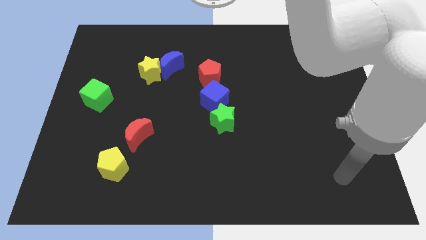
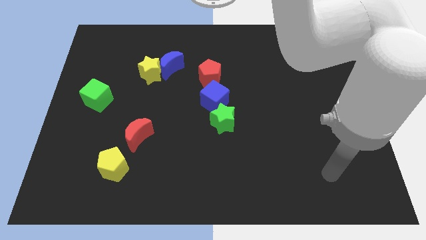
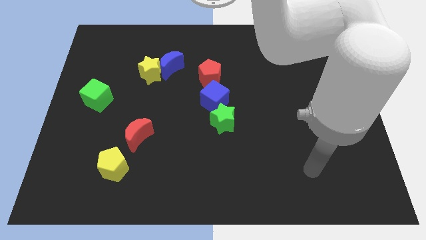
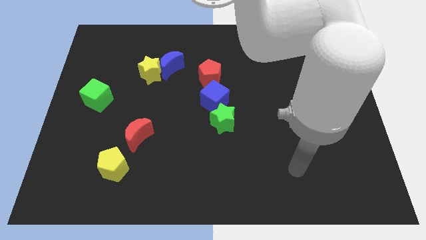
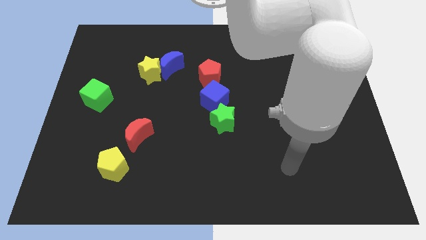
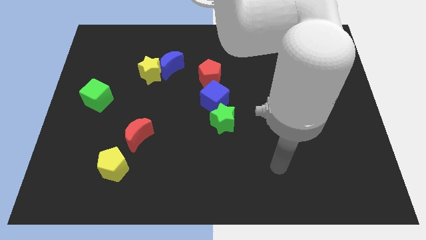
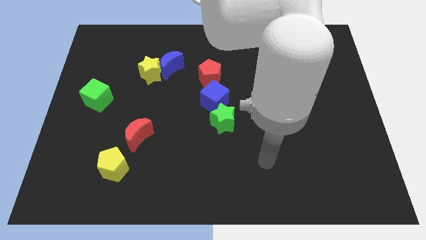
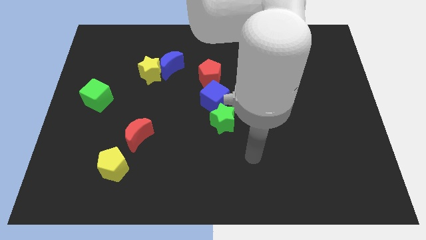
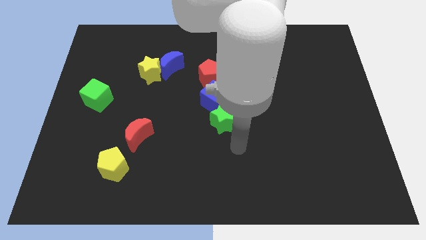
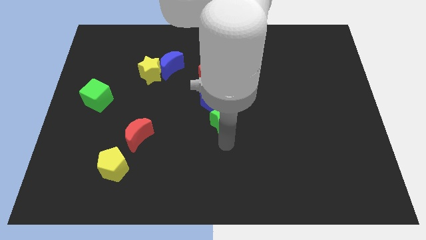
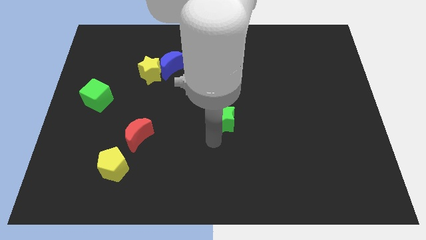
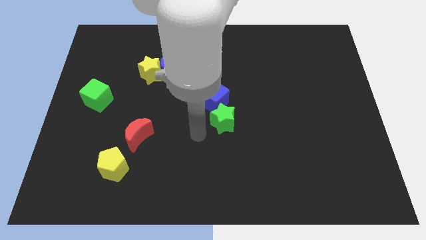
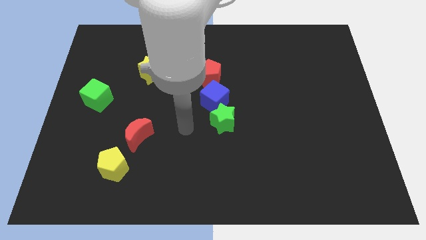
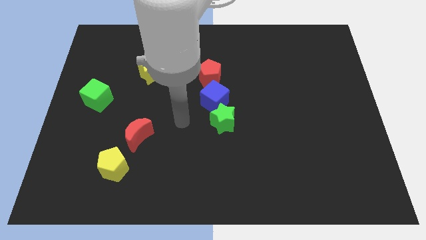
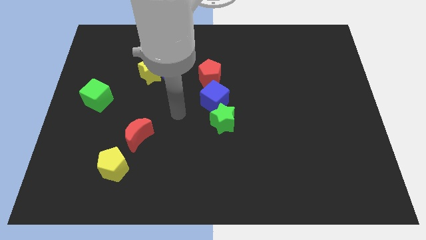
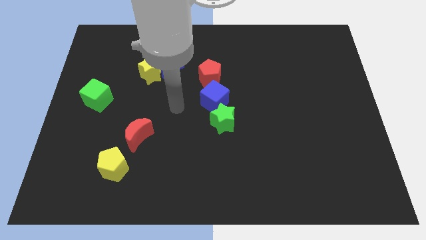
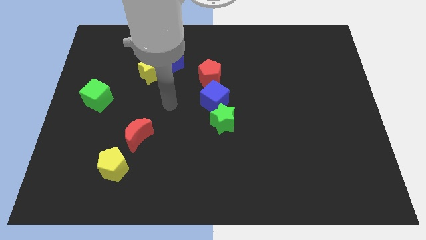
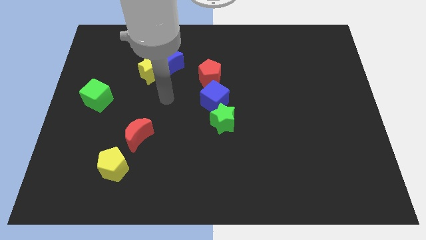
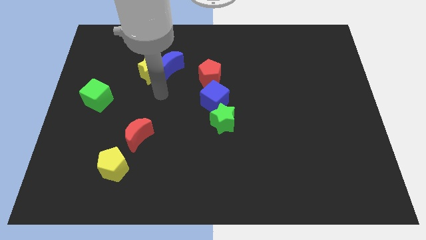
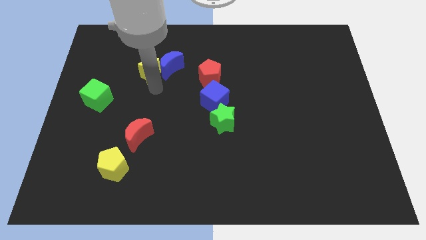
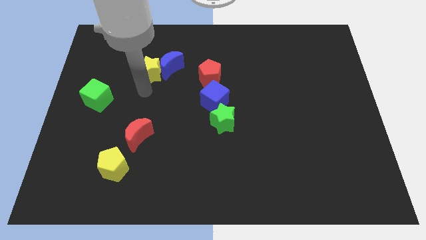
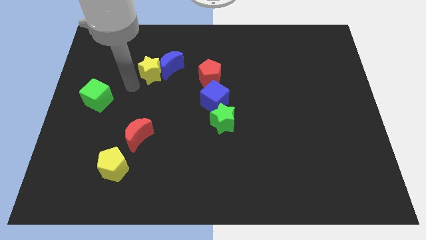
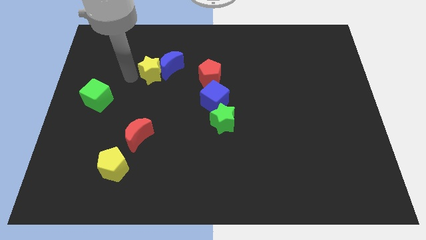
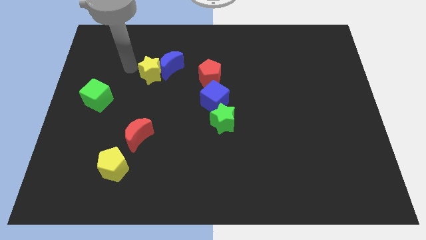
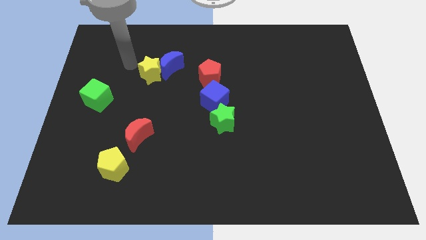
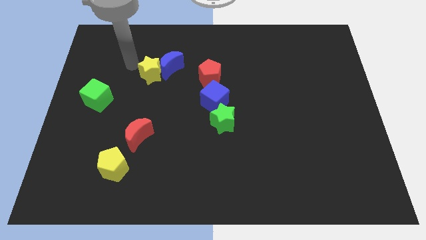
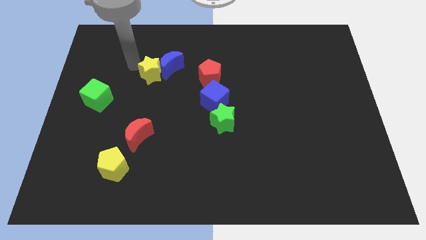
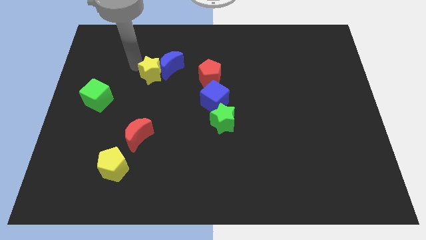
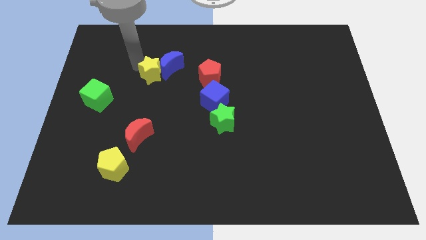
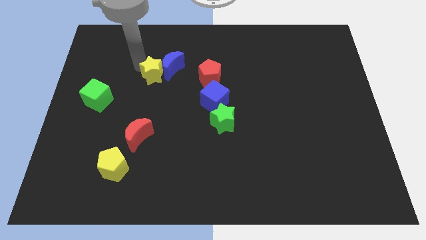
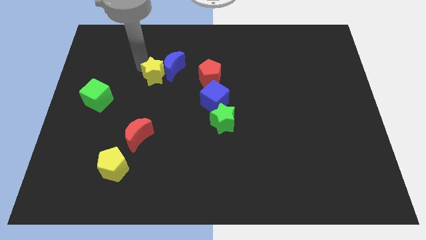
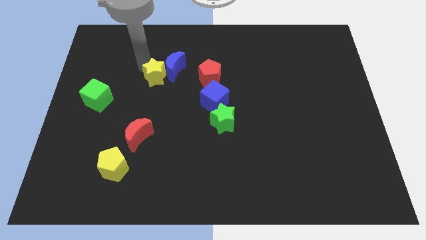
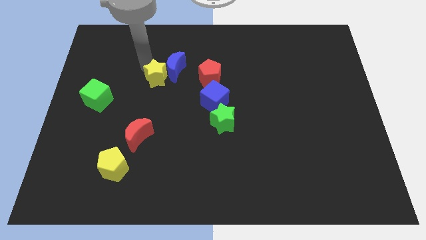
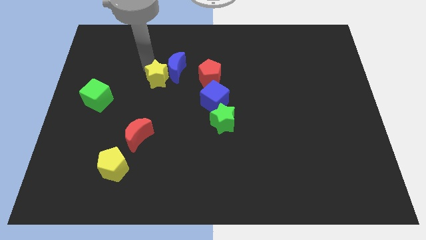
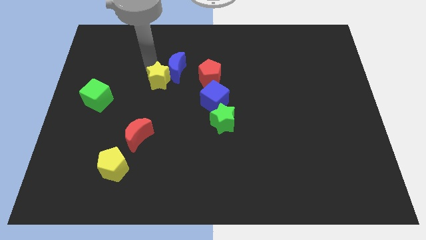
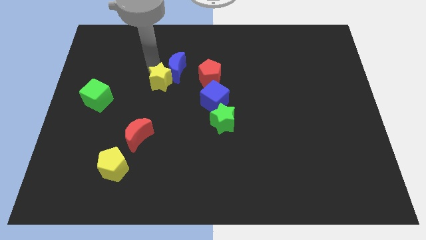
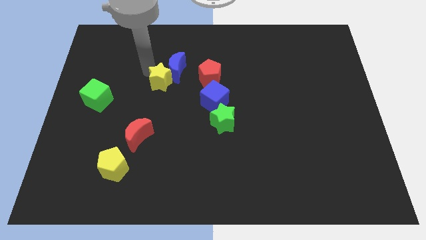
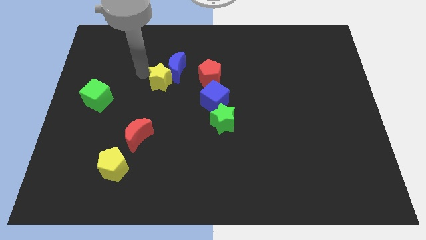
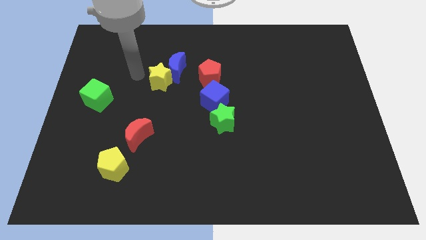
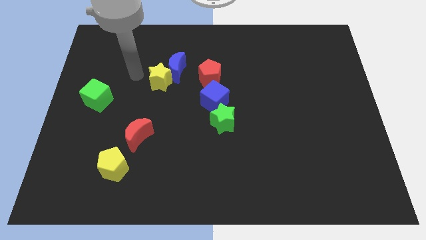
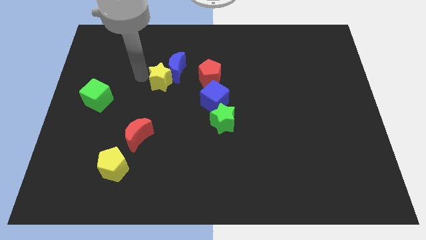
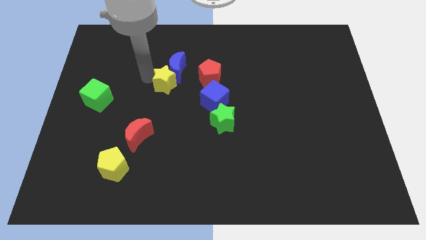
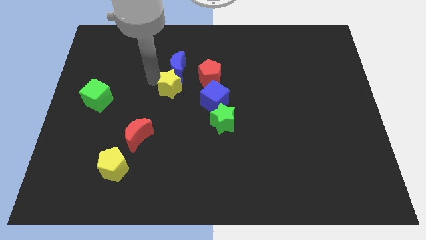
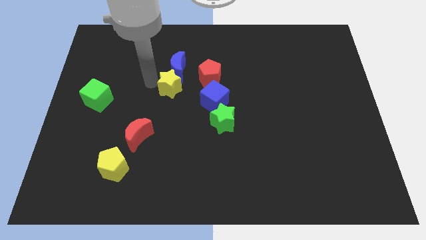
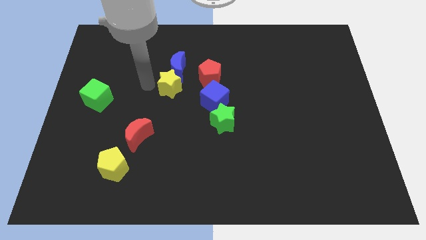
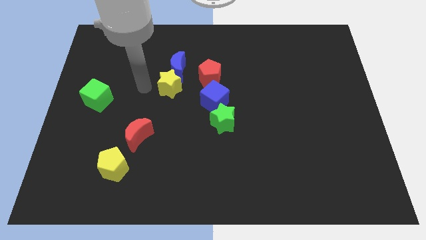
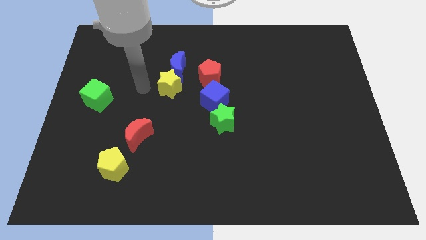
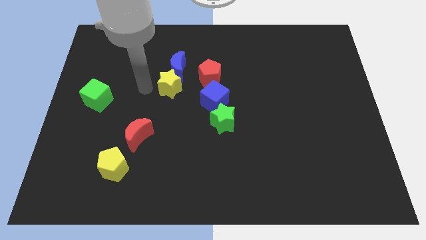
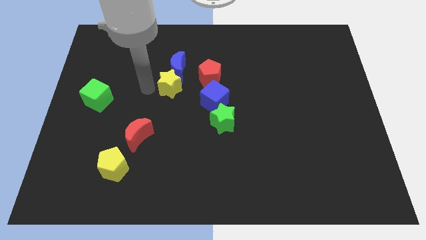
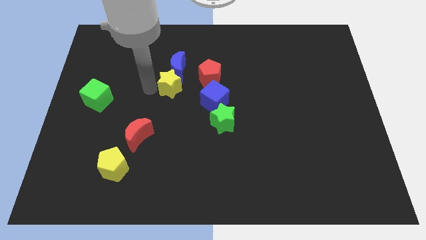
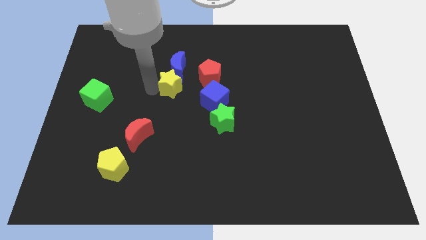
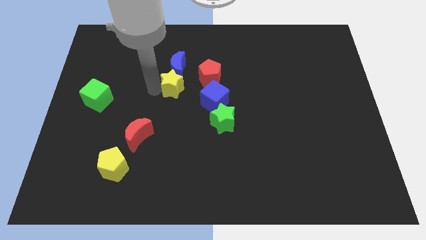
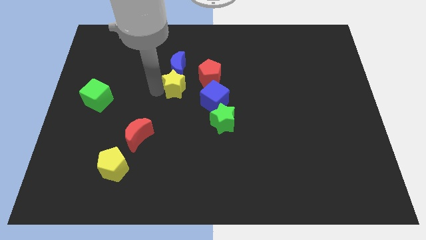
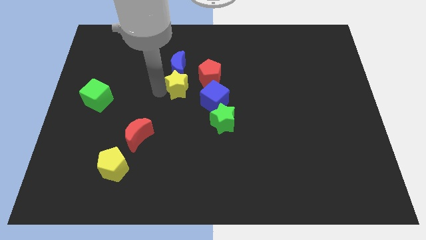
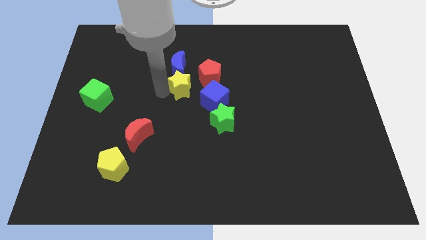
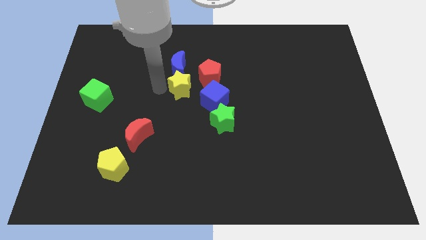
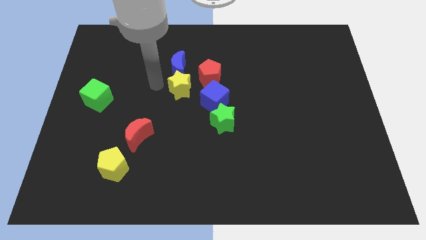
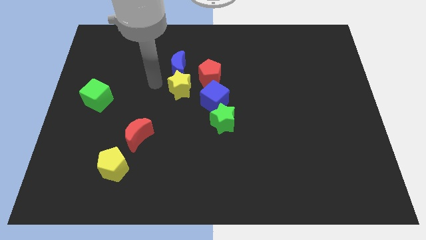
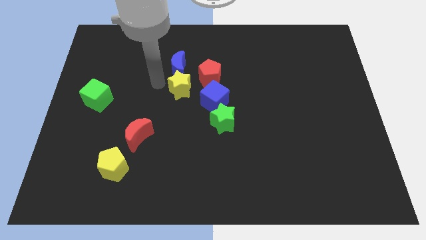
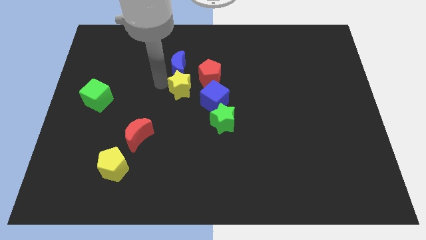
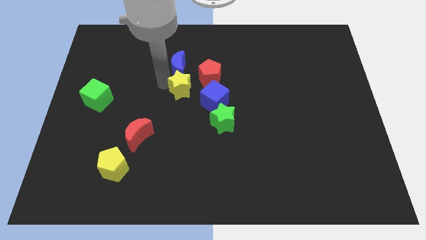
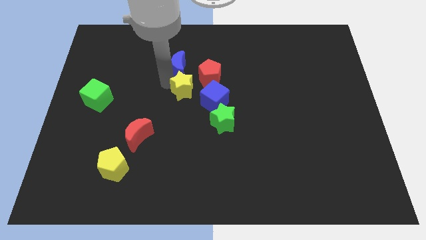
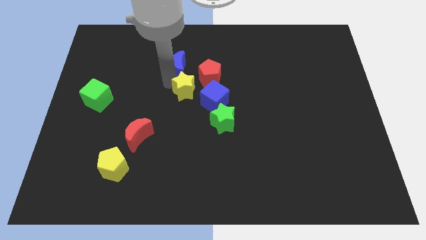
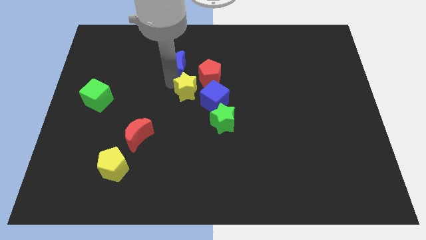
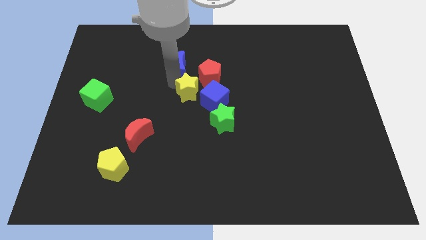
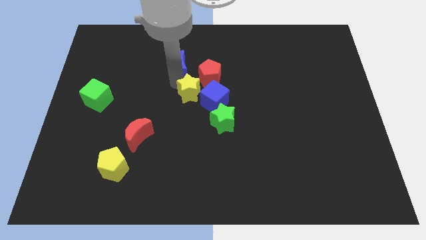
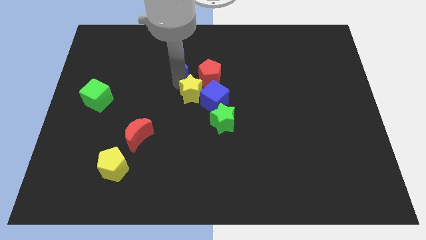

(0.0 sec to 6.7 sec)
slide the yellow star close to the blue cube

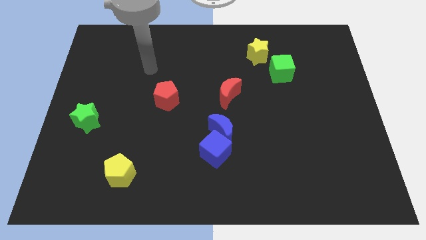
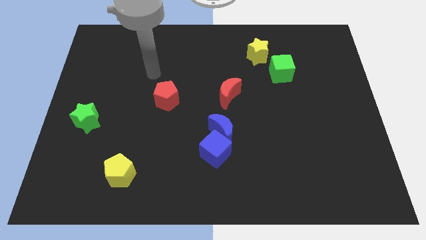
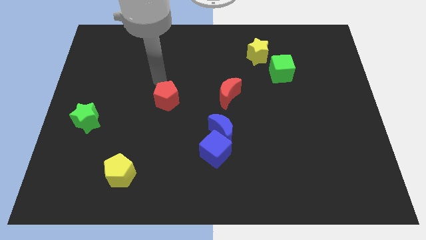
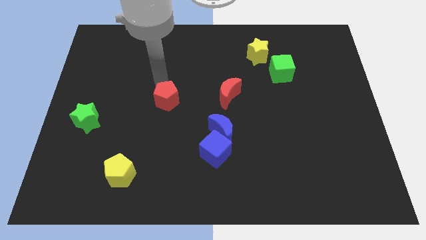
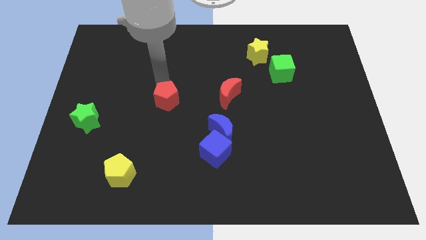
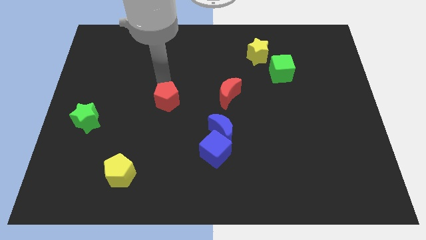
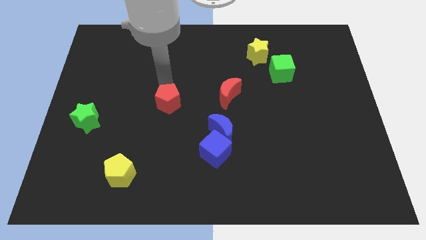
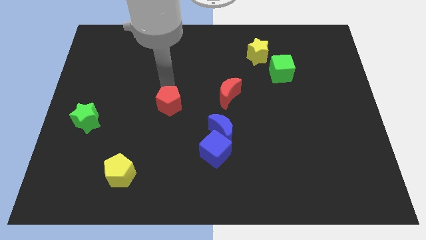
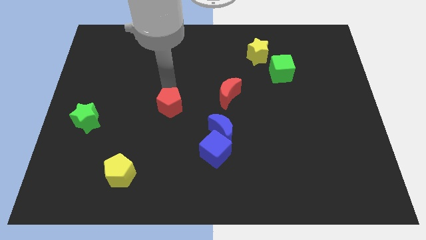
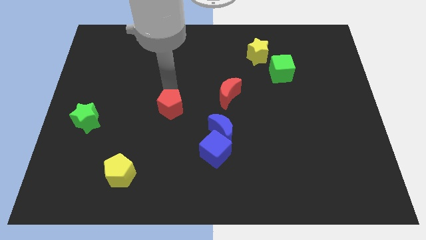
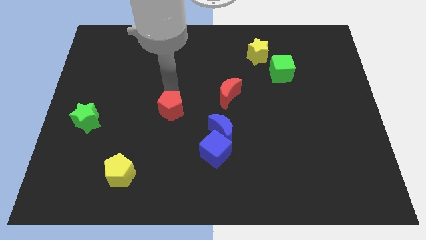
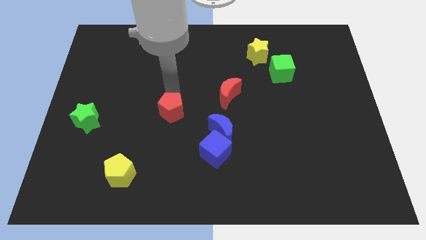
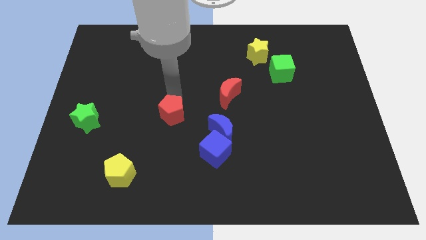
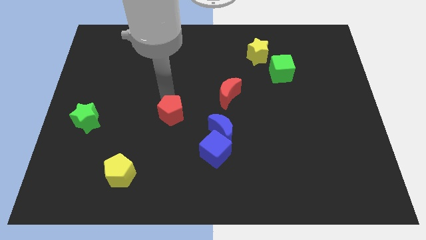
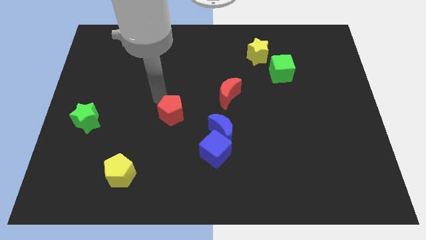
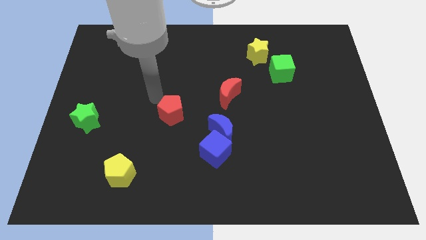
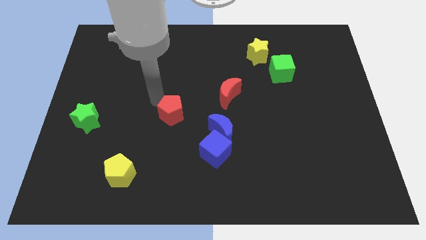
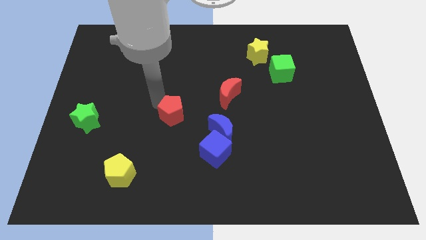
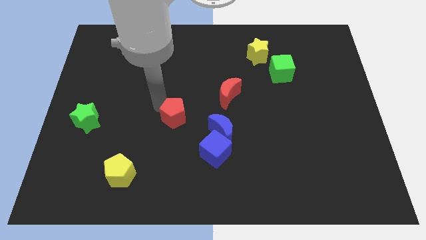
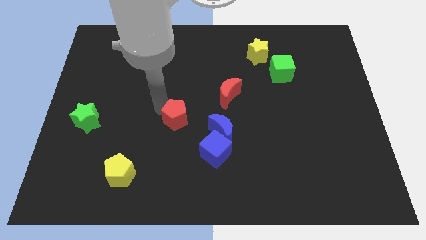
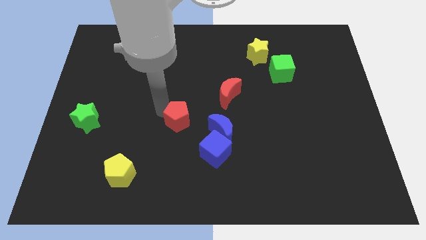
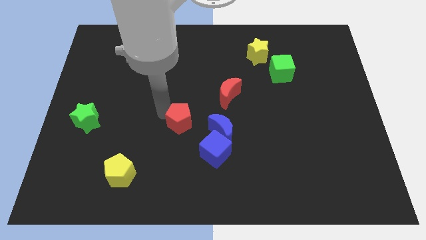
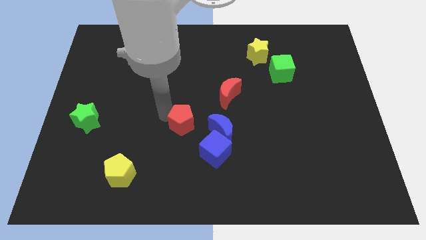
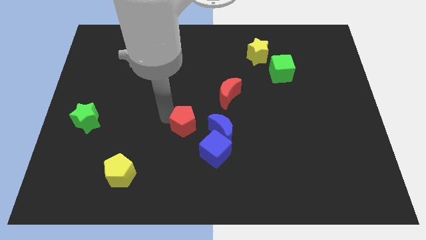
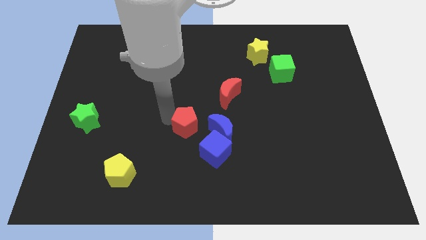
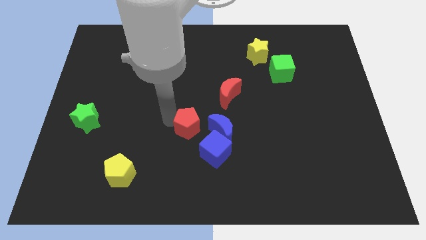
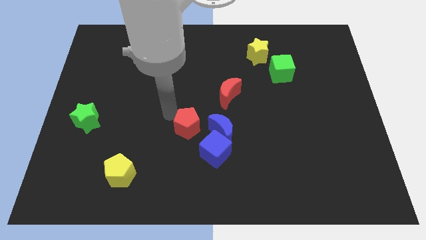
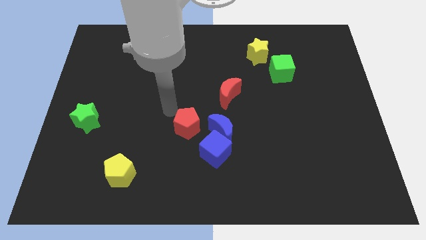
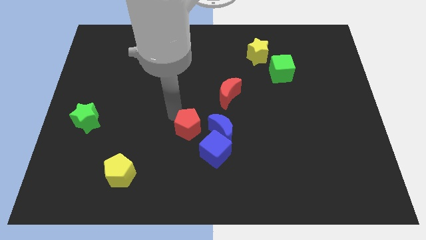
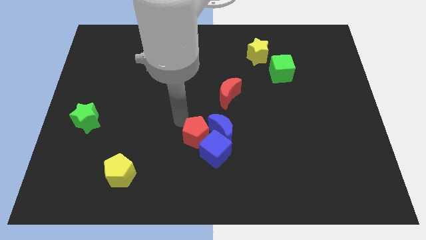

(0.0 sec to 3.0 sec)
push the red pentagon close to the blue cube
